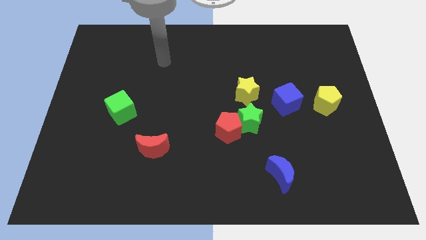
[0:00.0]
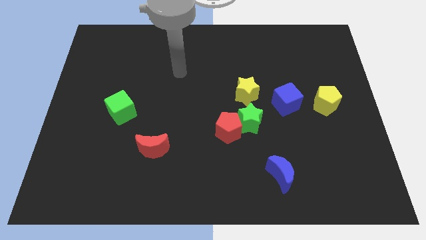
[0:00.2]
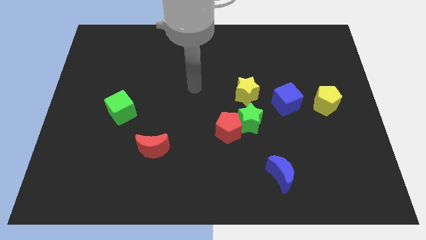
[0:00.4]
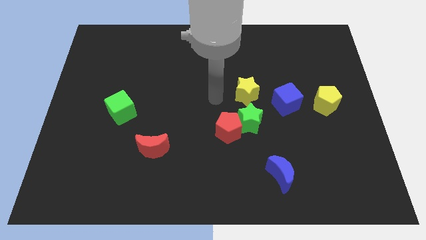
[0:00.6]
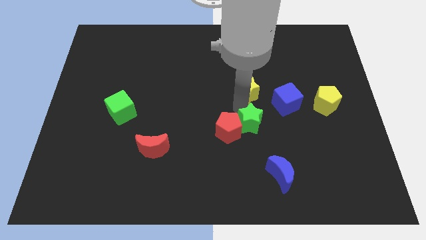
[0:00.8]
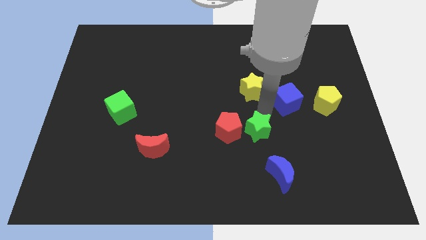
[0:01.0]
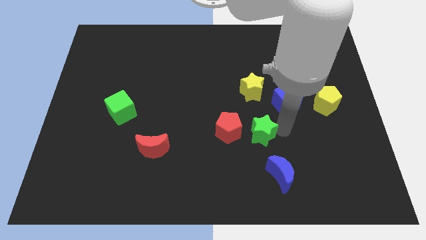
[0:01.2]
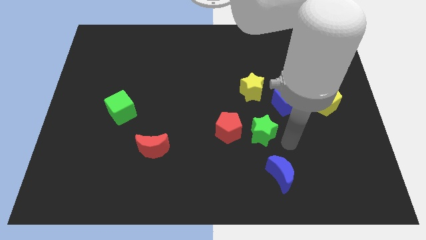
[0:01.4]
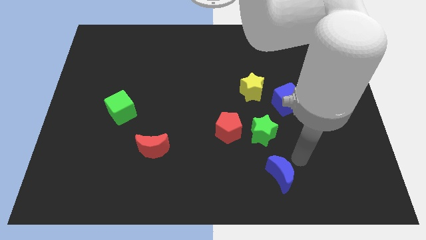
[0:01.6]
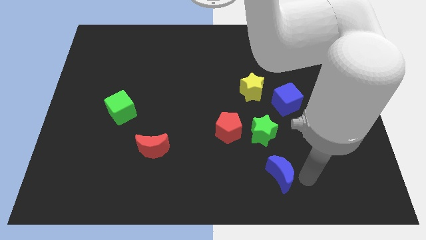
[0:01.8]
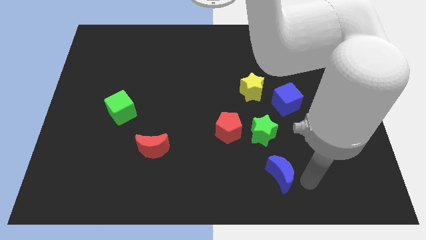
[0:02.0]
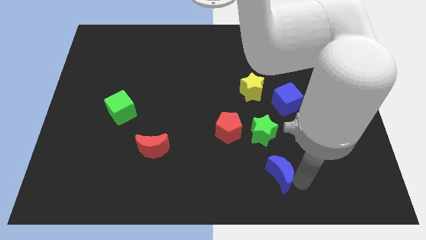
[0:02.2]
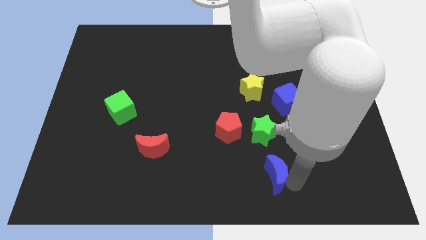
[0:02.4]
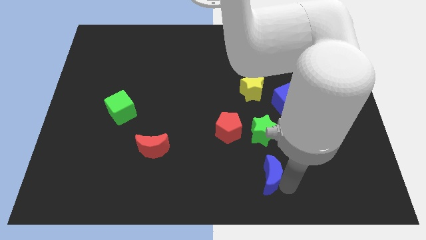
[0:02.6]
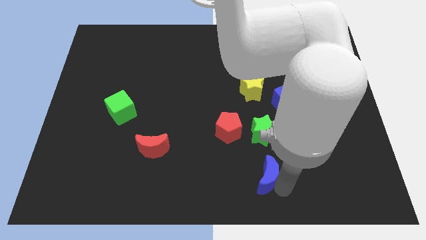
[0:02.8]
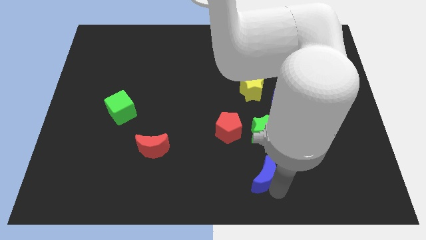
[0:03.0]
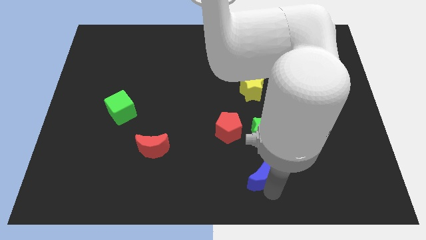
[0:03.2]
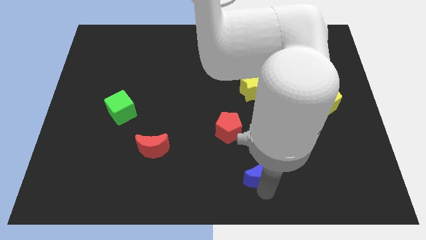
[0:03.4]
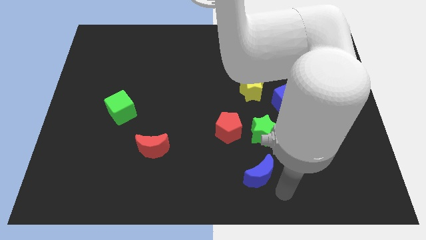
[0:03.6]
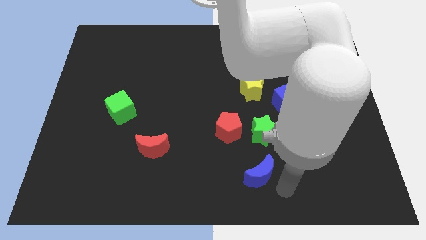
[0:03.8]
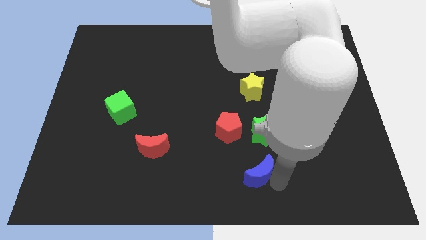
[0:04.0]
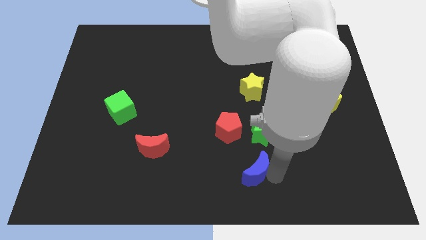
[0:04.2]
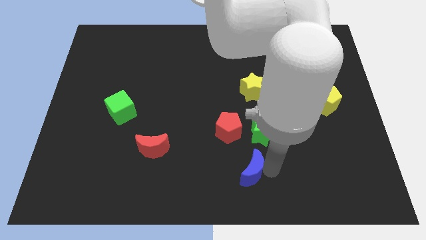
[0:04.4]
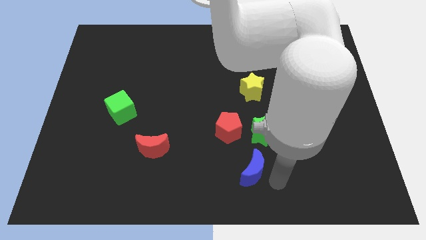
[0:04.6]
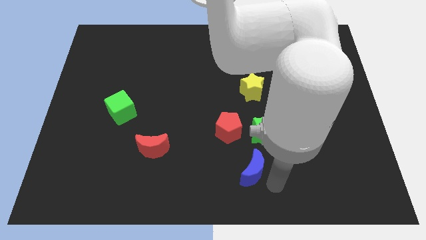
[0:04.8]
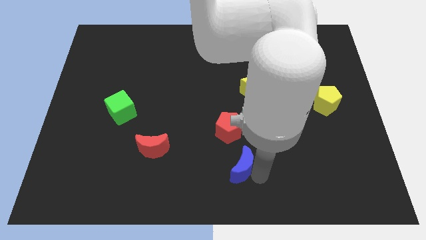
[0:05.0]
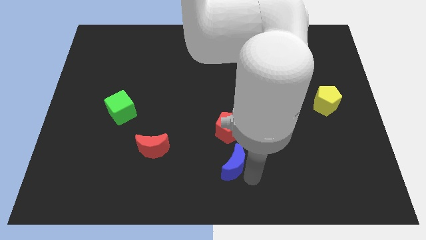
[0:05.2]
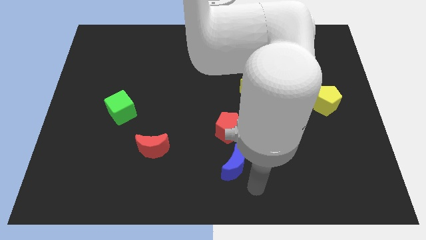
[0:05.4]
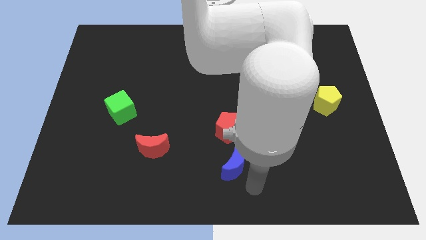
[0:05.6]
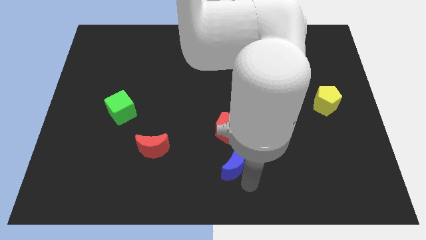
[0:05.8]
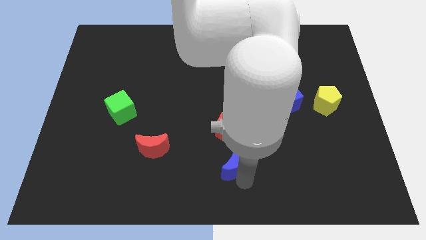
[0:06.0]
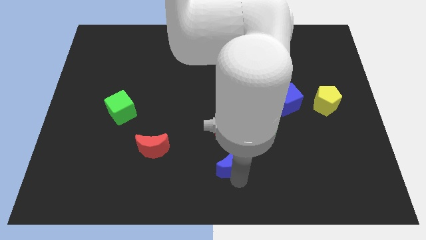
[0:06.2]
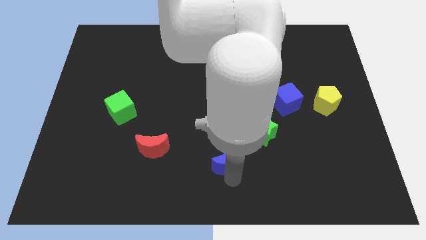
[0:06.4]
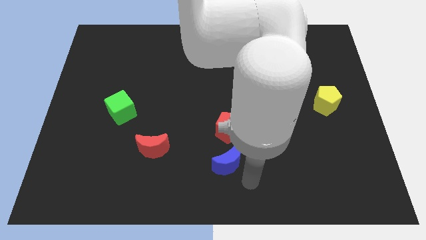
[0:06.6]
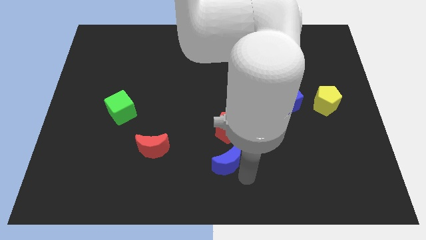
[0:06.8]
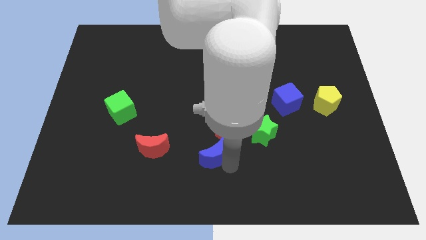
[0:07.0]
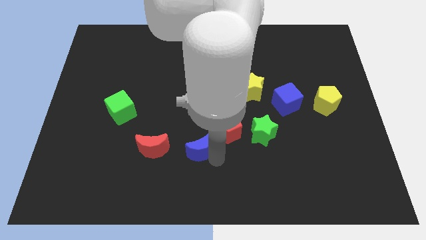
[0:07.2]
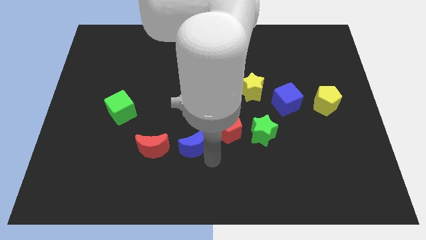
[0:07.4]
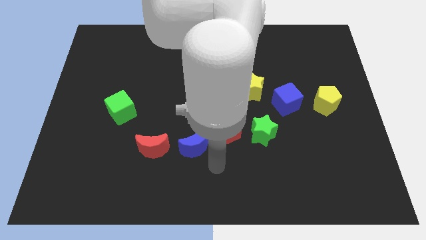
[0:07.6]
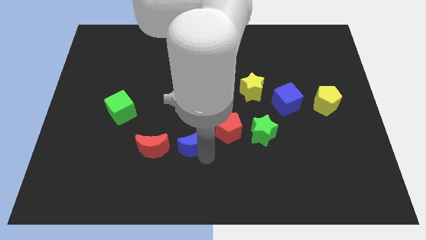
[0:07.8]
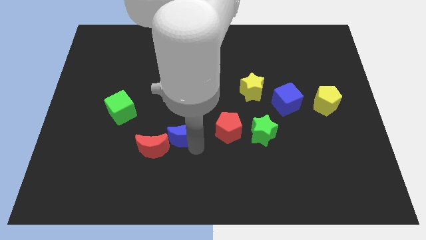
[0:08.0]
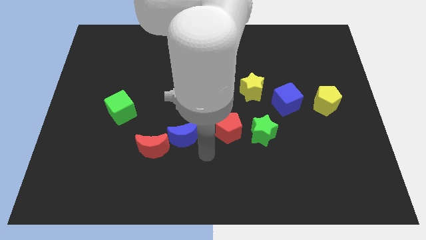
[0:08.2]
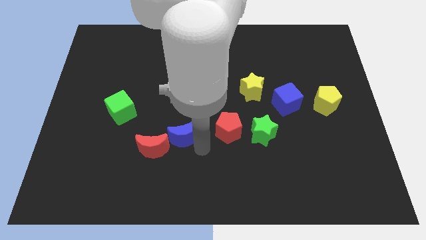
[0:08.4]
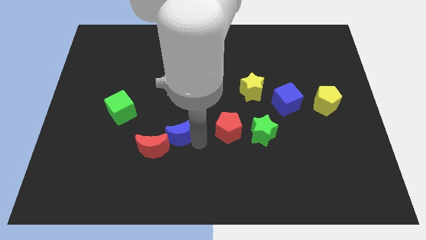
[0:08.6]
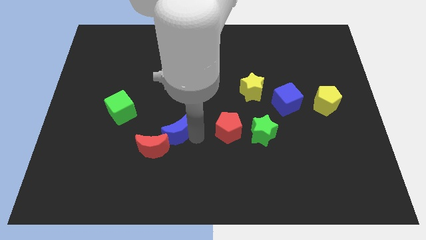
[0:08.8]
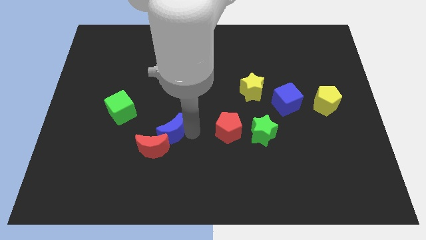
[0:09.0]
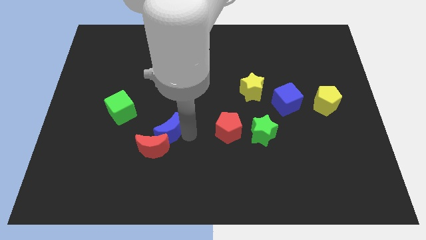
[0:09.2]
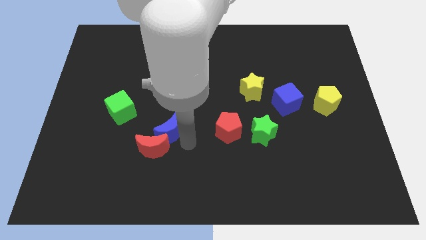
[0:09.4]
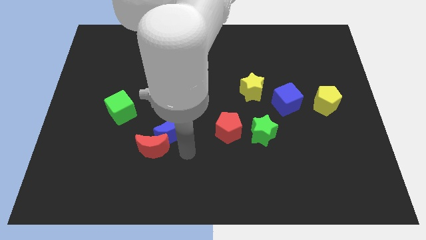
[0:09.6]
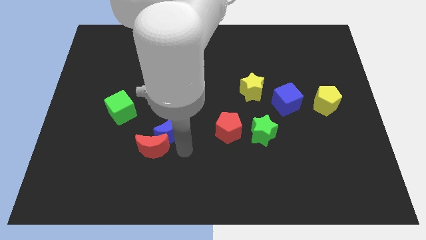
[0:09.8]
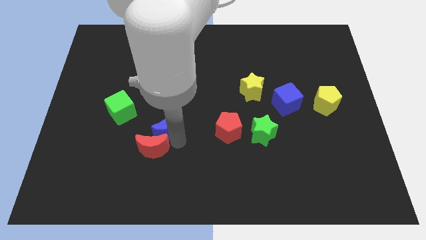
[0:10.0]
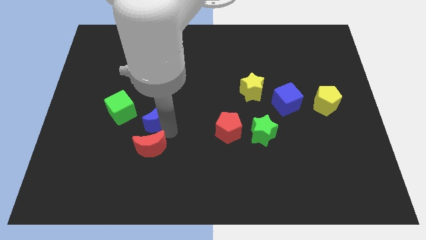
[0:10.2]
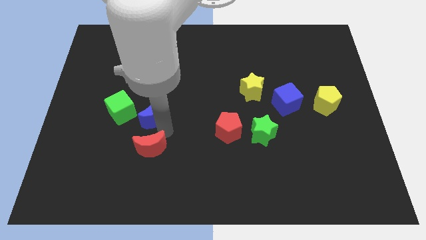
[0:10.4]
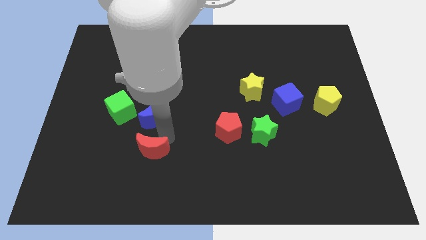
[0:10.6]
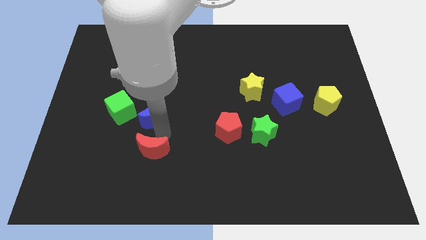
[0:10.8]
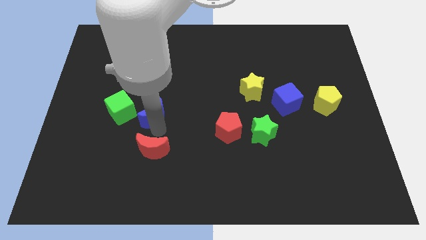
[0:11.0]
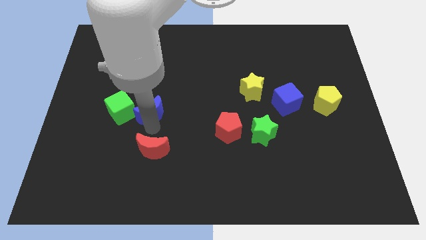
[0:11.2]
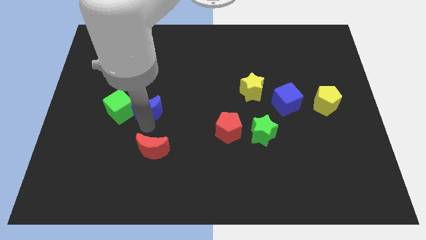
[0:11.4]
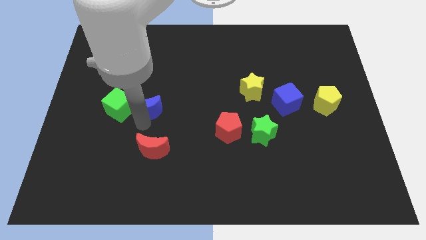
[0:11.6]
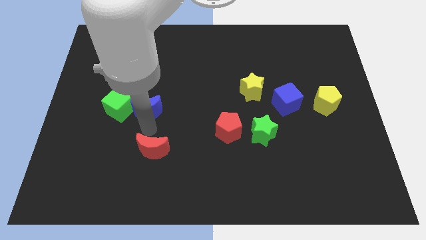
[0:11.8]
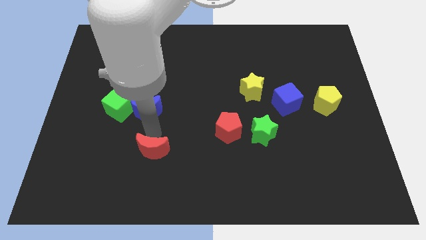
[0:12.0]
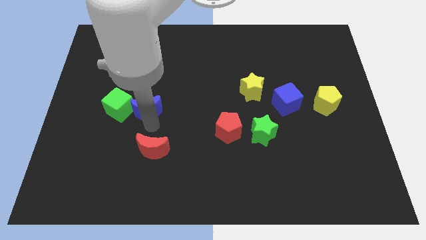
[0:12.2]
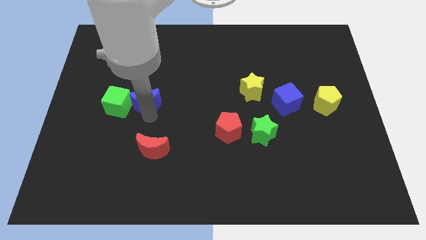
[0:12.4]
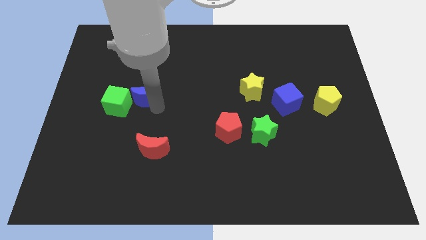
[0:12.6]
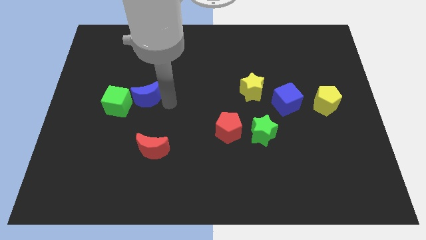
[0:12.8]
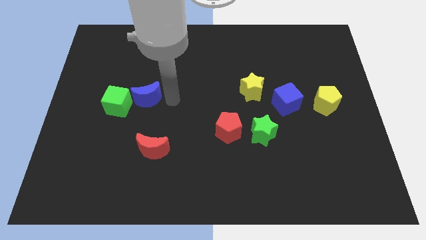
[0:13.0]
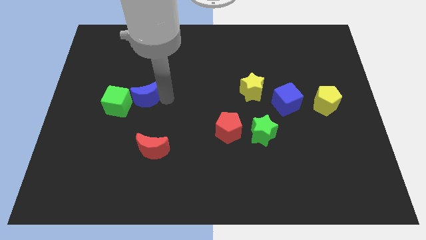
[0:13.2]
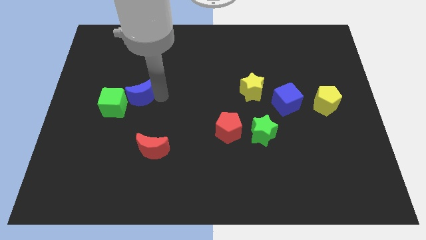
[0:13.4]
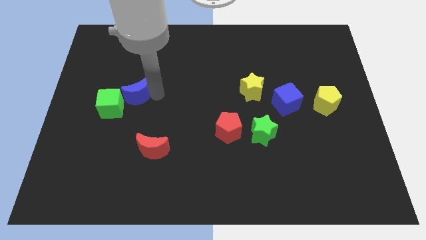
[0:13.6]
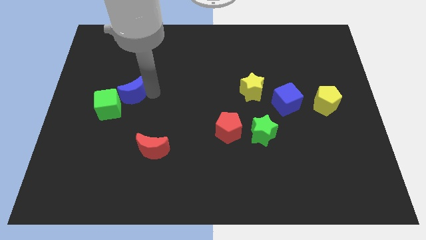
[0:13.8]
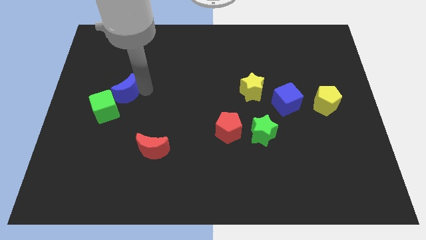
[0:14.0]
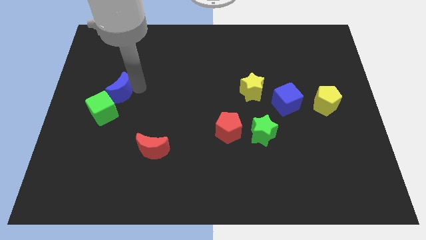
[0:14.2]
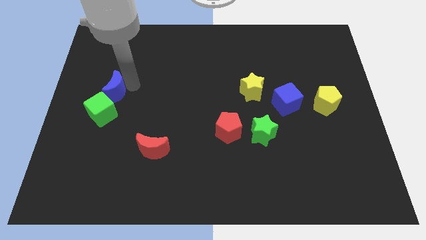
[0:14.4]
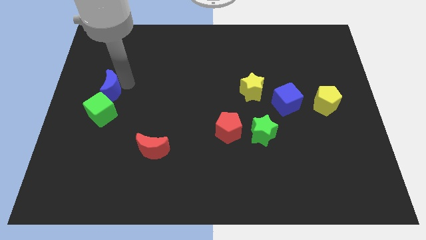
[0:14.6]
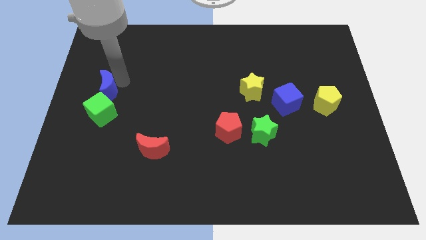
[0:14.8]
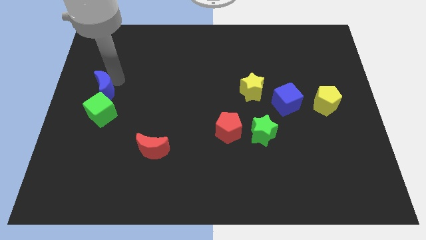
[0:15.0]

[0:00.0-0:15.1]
move the blue moon diagonally up and to the left of the green cube

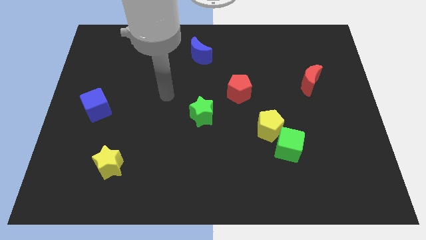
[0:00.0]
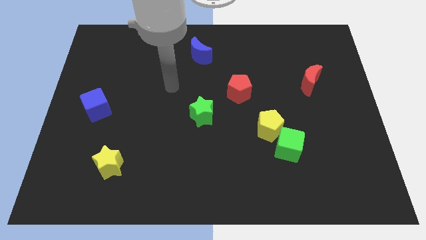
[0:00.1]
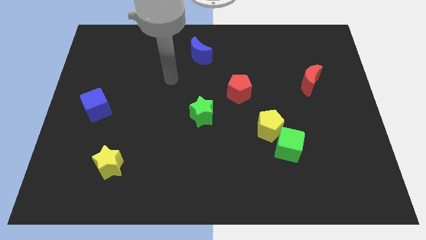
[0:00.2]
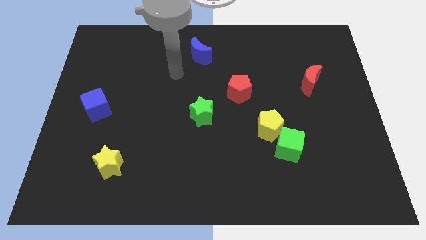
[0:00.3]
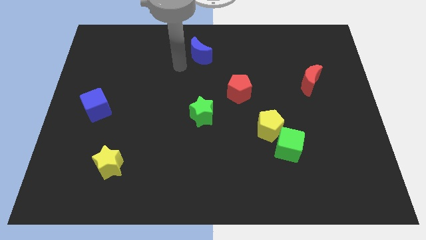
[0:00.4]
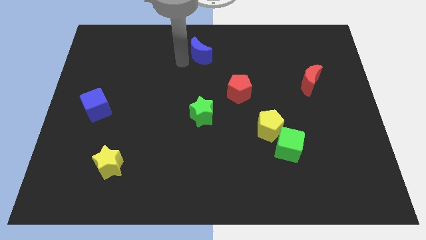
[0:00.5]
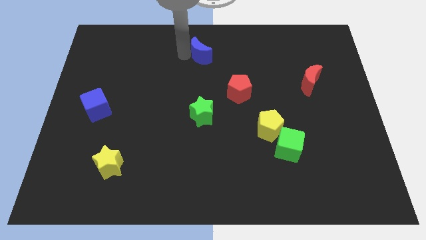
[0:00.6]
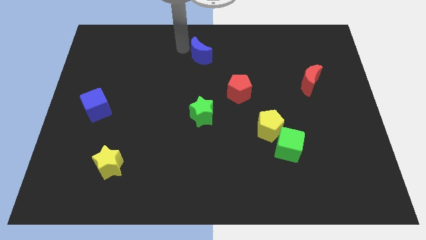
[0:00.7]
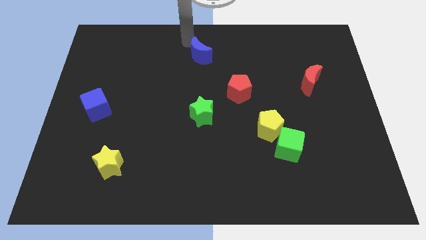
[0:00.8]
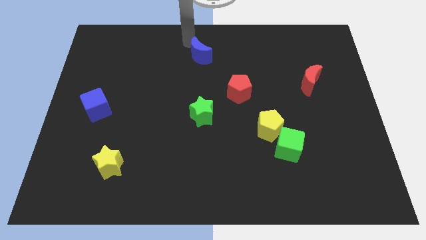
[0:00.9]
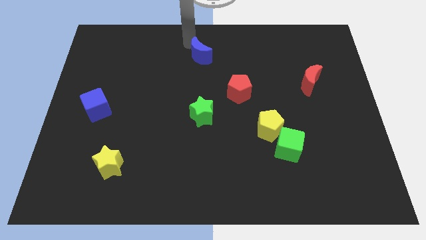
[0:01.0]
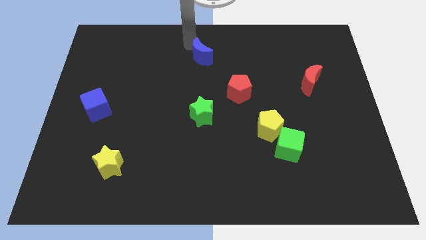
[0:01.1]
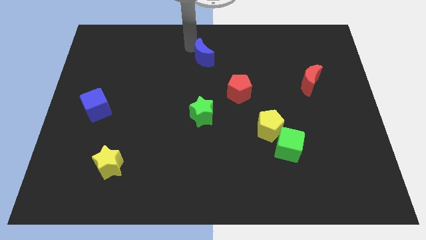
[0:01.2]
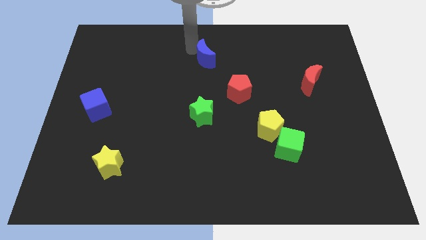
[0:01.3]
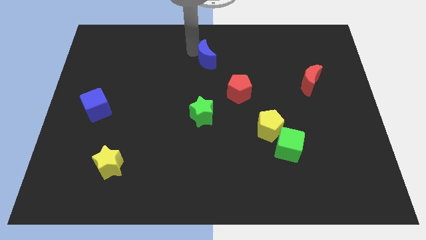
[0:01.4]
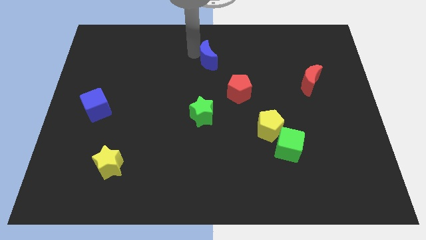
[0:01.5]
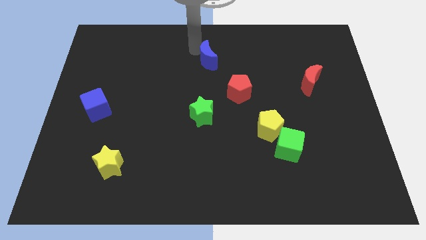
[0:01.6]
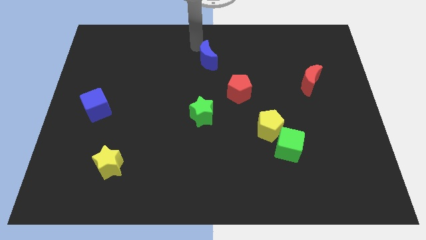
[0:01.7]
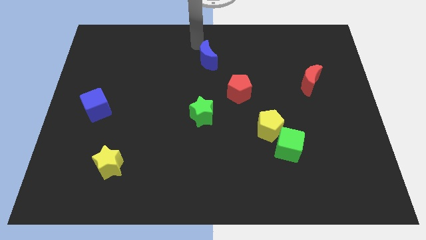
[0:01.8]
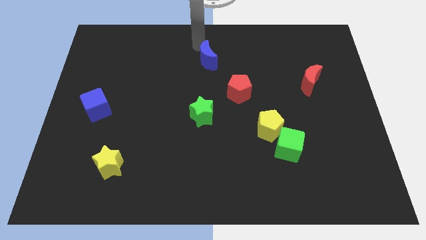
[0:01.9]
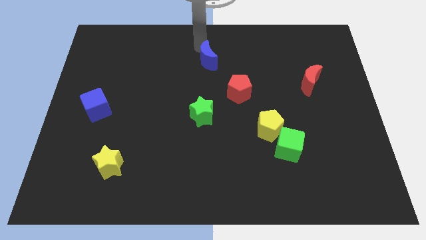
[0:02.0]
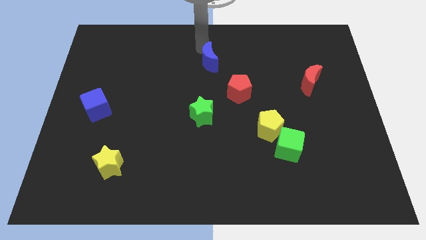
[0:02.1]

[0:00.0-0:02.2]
push the blue moon to the top left side of the red pentagon
